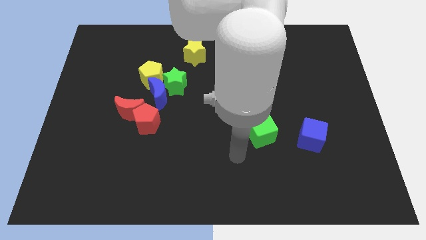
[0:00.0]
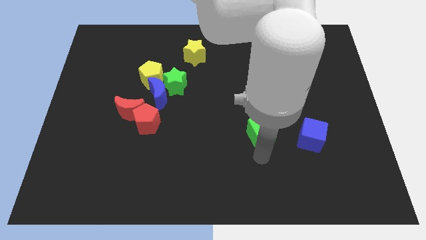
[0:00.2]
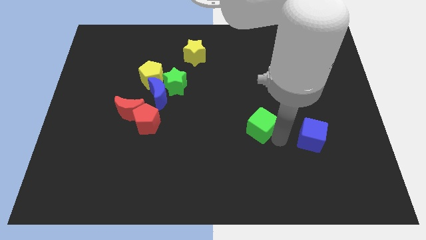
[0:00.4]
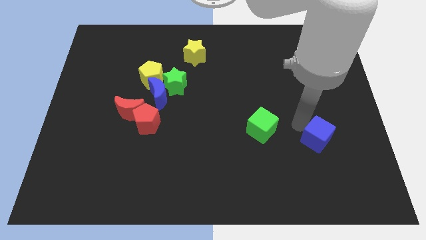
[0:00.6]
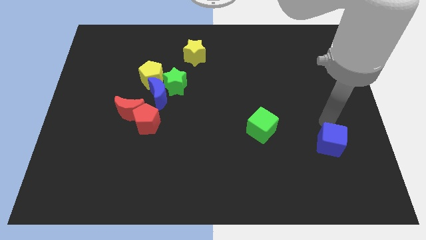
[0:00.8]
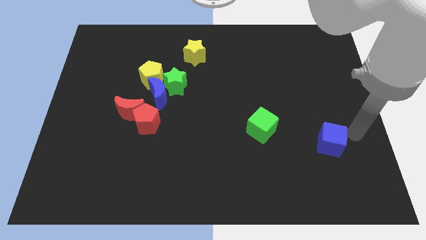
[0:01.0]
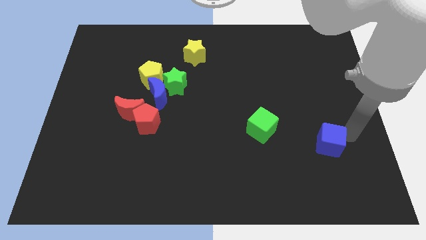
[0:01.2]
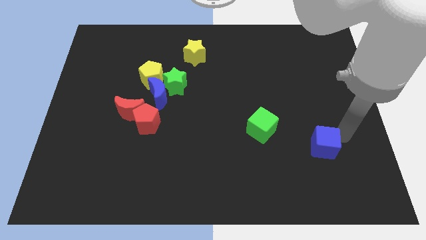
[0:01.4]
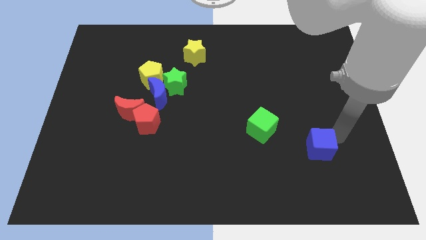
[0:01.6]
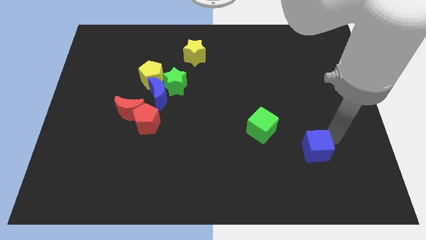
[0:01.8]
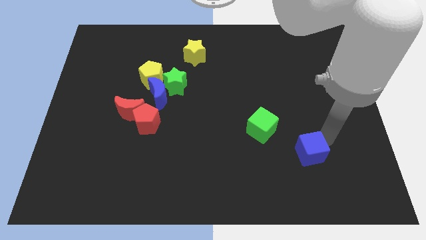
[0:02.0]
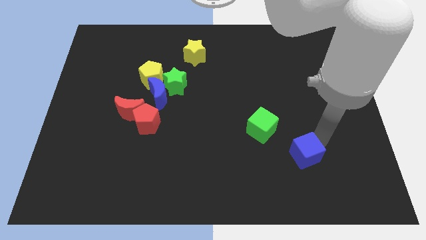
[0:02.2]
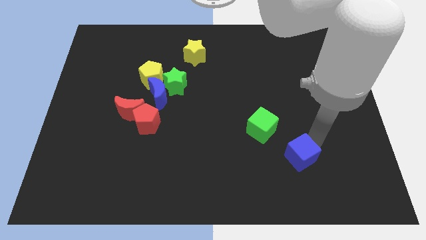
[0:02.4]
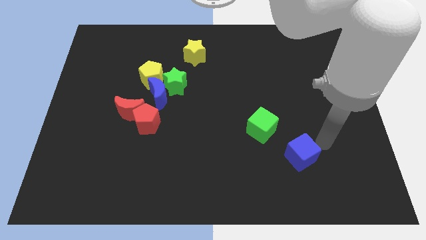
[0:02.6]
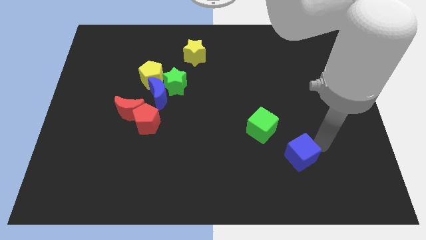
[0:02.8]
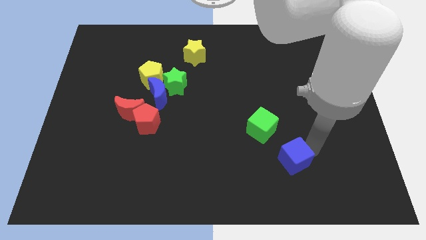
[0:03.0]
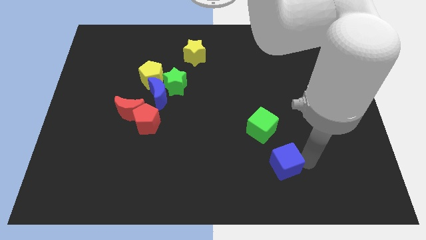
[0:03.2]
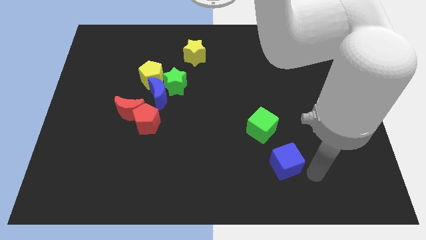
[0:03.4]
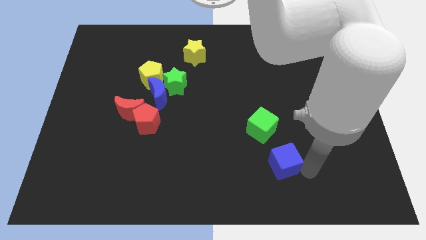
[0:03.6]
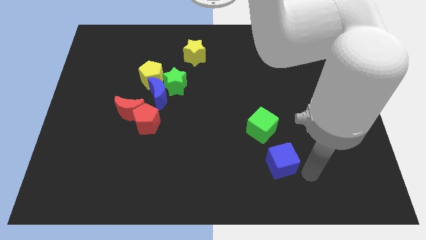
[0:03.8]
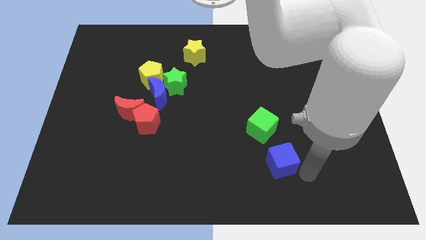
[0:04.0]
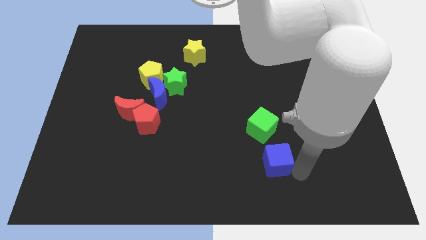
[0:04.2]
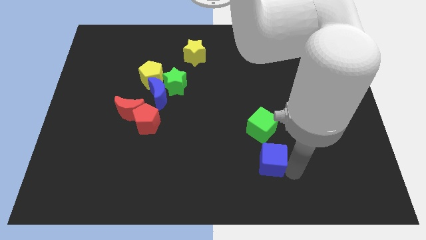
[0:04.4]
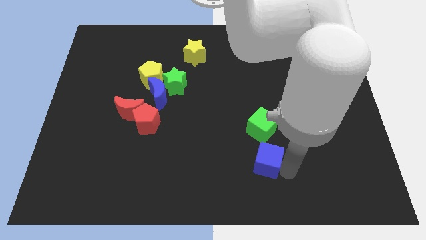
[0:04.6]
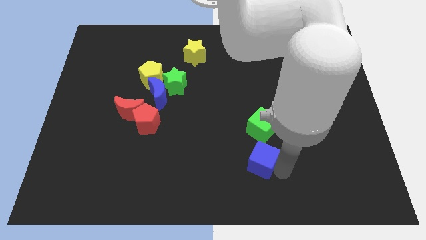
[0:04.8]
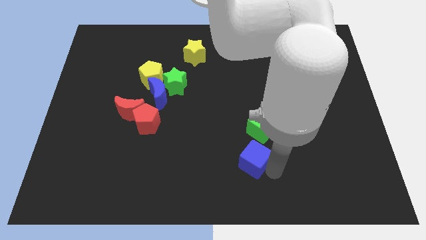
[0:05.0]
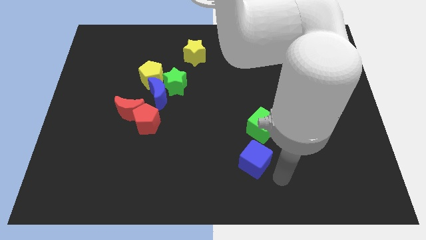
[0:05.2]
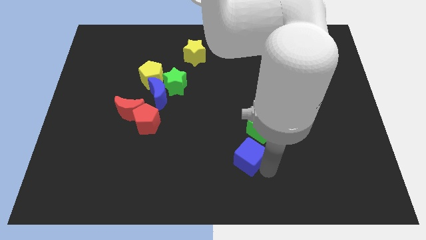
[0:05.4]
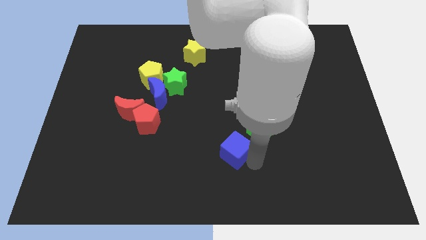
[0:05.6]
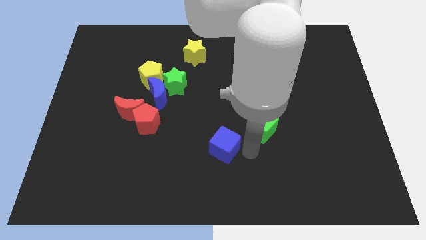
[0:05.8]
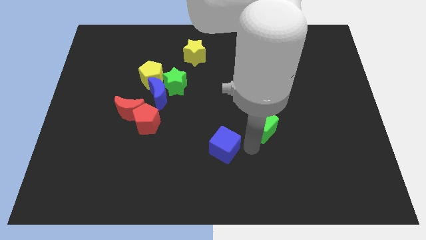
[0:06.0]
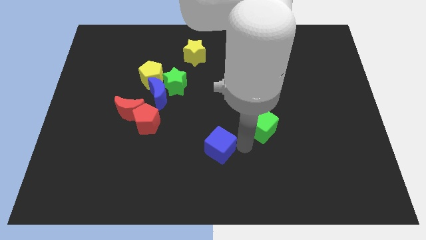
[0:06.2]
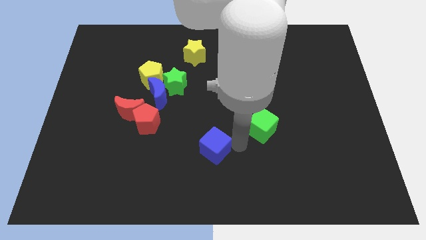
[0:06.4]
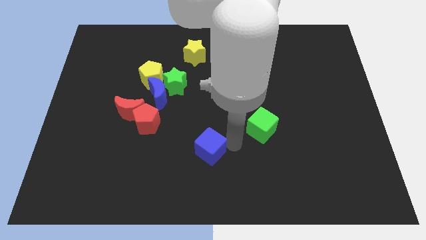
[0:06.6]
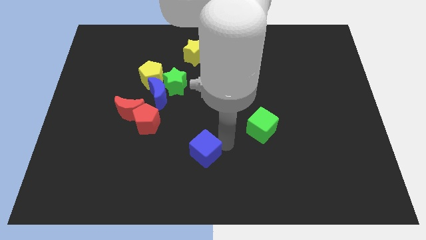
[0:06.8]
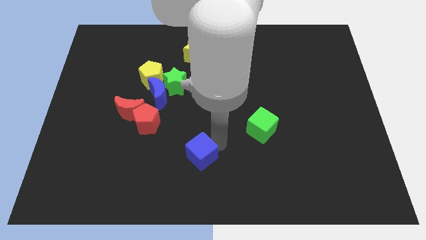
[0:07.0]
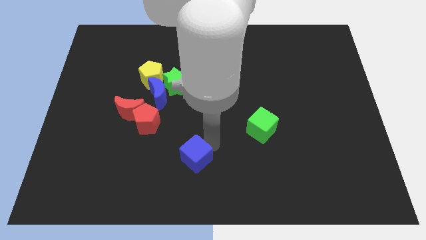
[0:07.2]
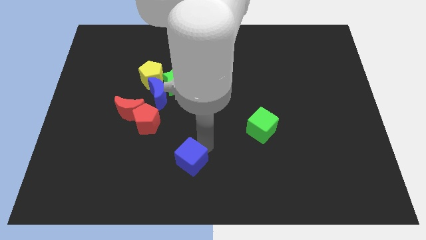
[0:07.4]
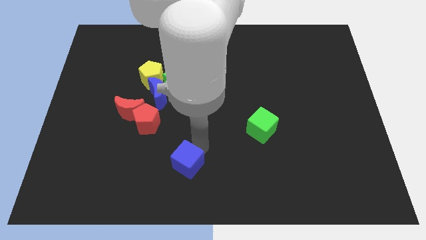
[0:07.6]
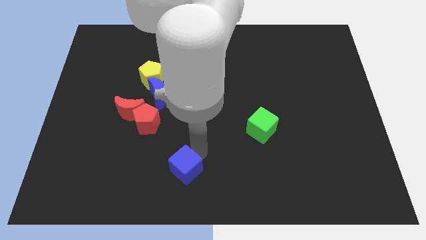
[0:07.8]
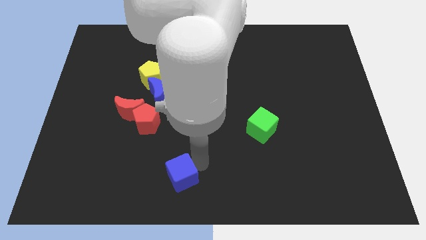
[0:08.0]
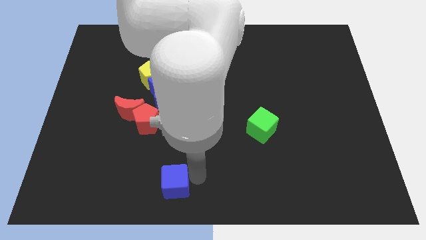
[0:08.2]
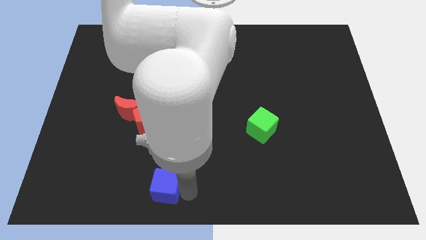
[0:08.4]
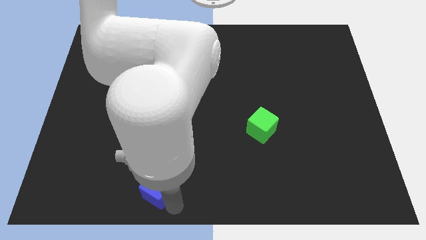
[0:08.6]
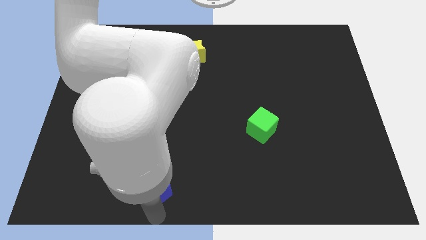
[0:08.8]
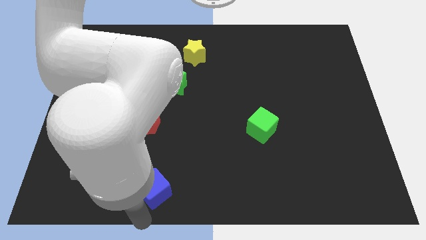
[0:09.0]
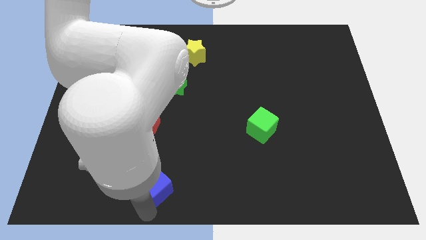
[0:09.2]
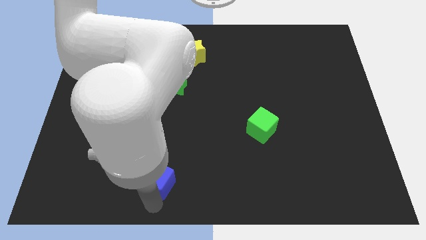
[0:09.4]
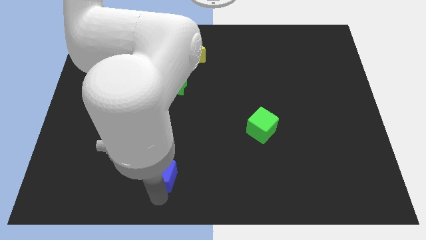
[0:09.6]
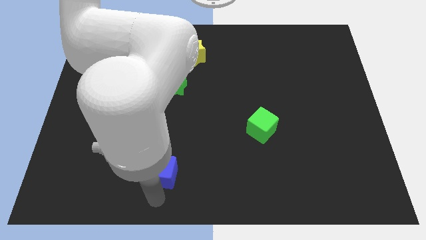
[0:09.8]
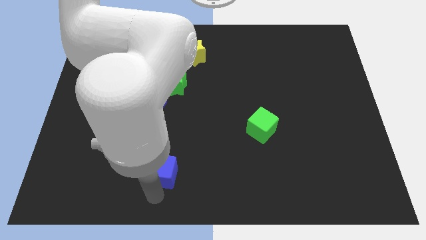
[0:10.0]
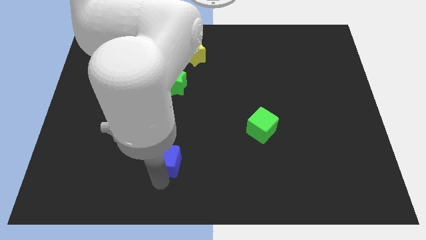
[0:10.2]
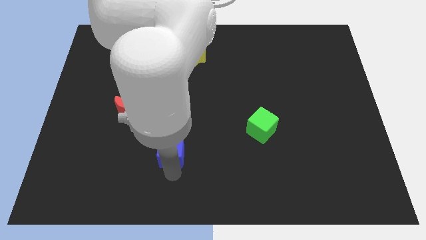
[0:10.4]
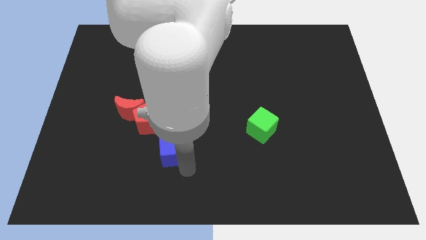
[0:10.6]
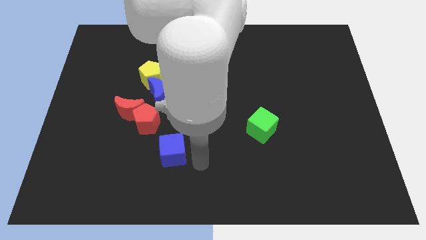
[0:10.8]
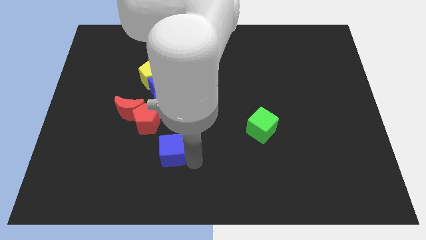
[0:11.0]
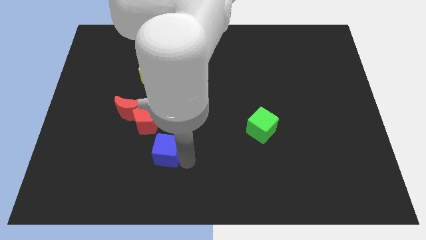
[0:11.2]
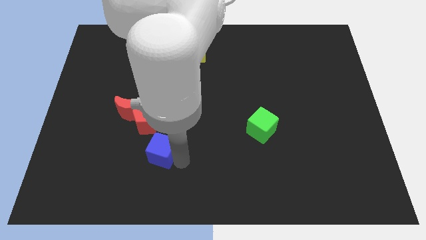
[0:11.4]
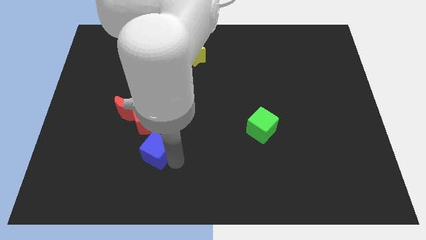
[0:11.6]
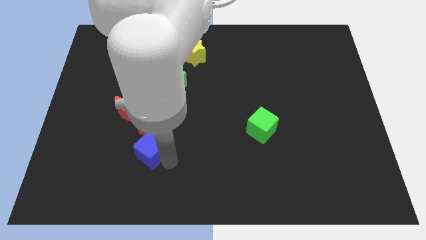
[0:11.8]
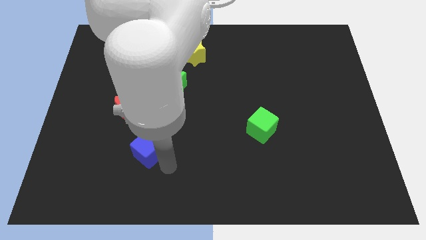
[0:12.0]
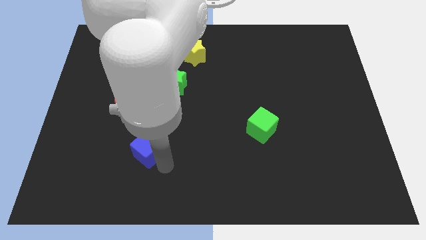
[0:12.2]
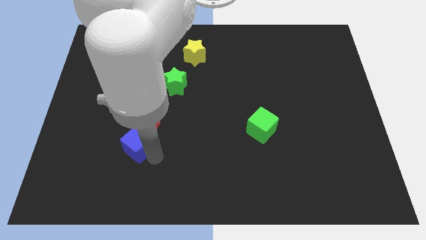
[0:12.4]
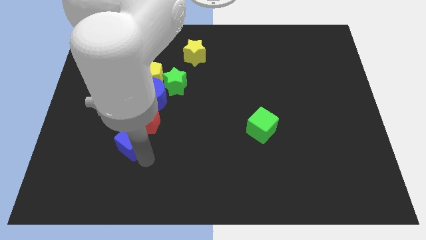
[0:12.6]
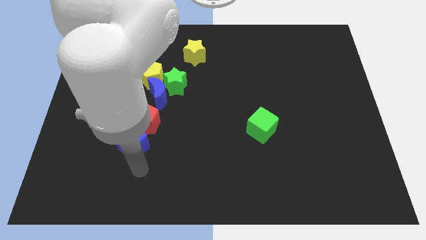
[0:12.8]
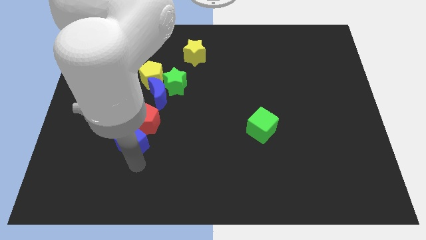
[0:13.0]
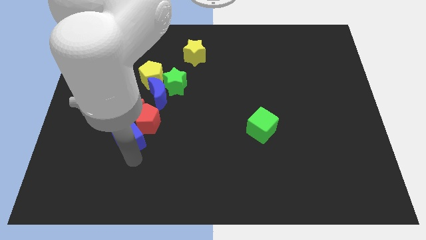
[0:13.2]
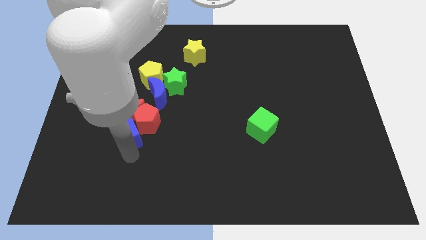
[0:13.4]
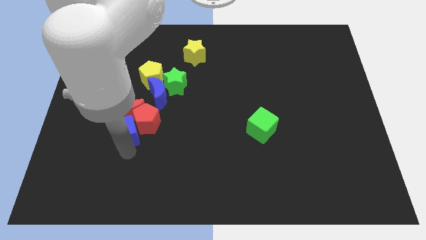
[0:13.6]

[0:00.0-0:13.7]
push the blue cube next to the red moon

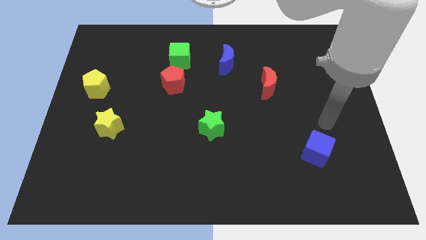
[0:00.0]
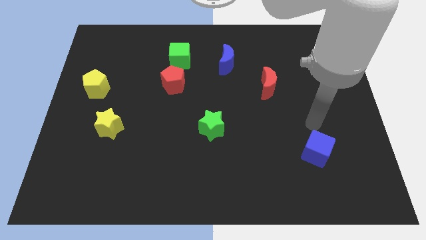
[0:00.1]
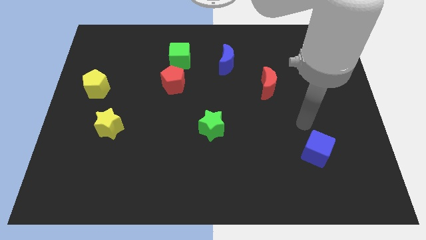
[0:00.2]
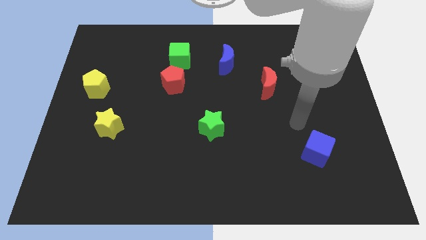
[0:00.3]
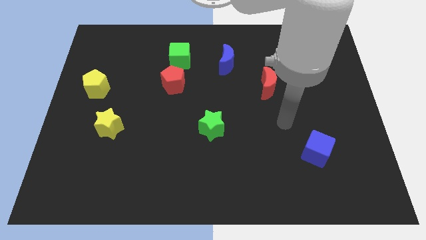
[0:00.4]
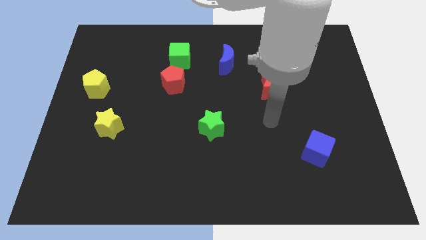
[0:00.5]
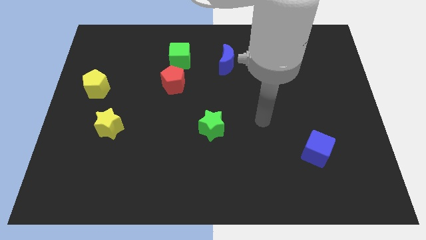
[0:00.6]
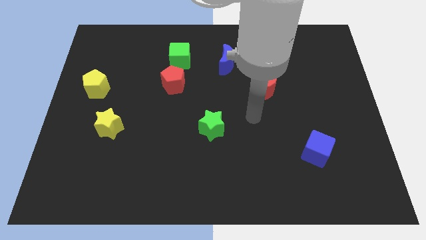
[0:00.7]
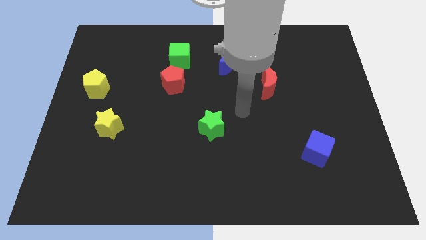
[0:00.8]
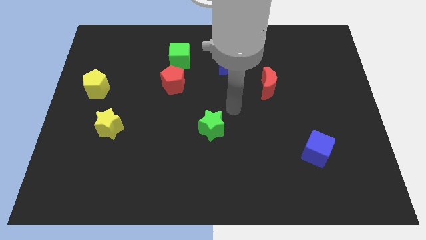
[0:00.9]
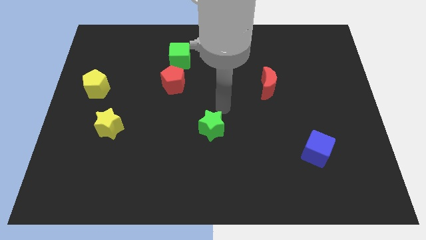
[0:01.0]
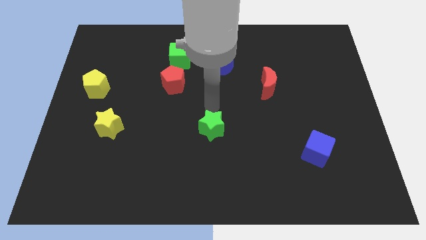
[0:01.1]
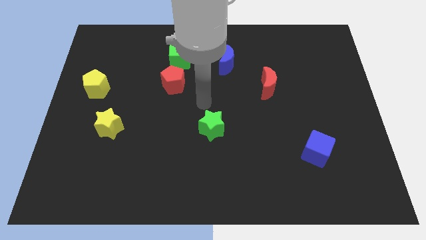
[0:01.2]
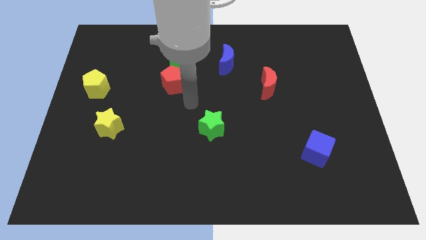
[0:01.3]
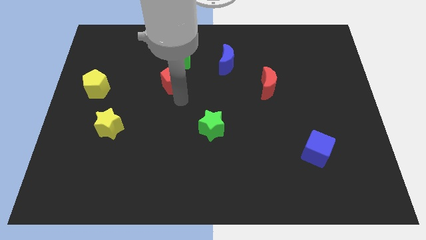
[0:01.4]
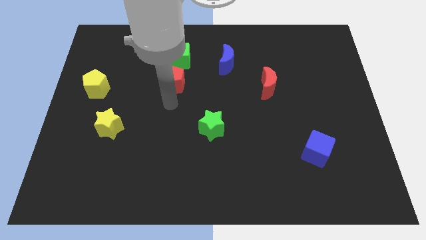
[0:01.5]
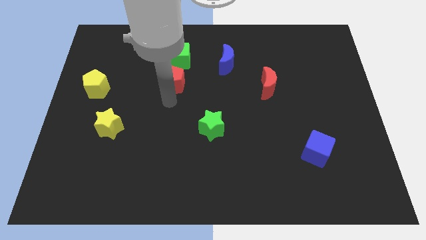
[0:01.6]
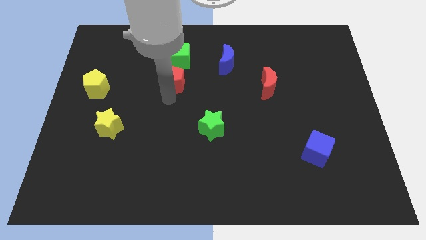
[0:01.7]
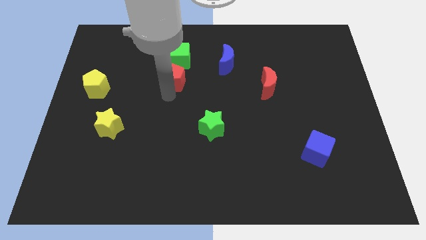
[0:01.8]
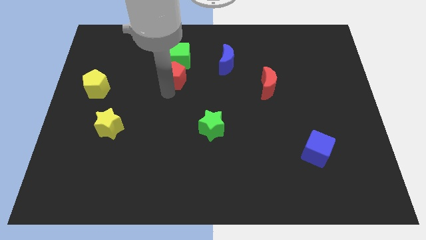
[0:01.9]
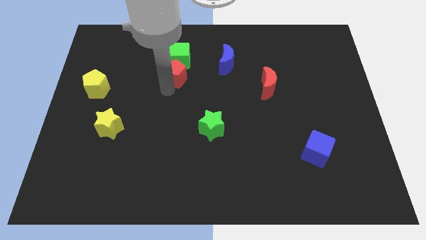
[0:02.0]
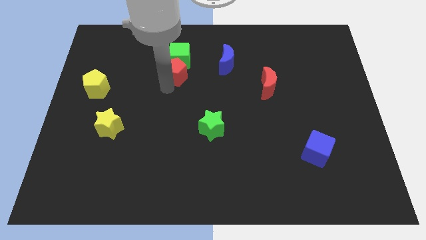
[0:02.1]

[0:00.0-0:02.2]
put the red pentagon close to the green cube
